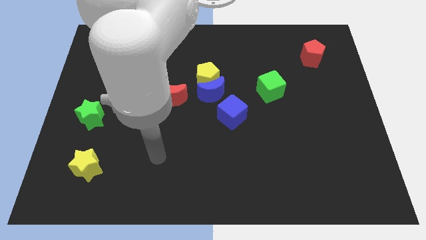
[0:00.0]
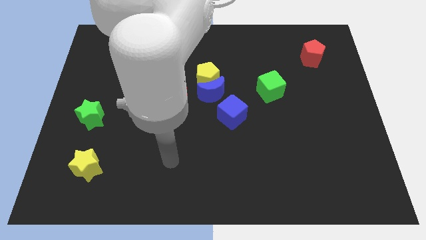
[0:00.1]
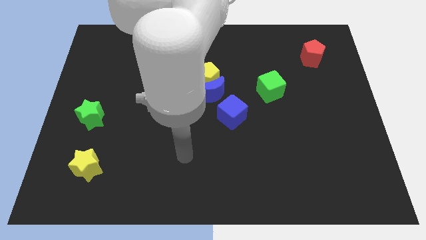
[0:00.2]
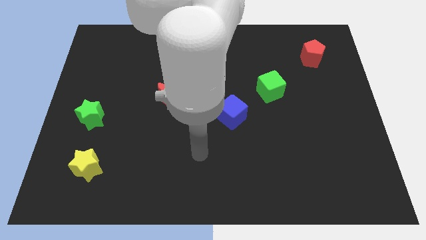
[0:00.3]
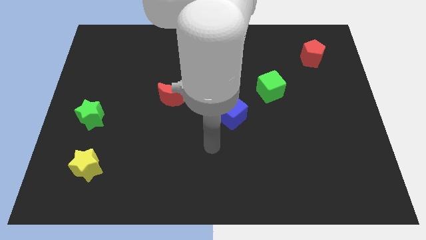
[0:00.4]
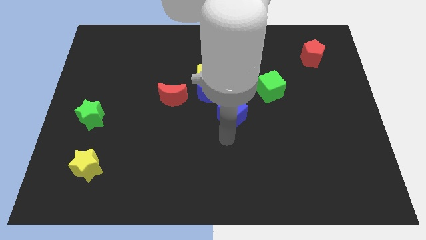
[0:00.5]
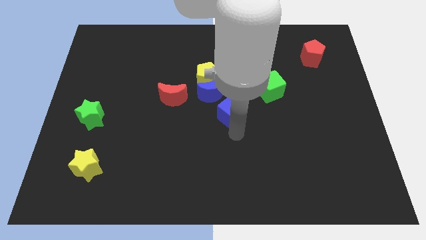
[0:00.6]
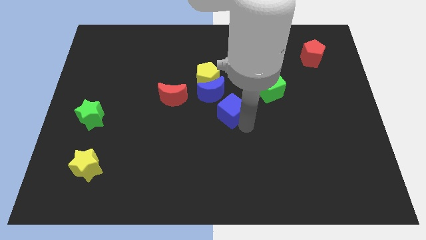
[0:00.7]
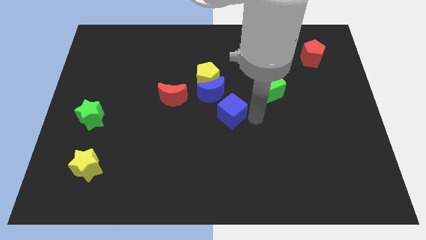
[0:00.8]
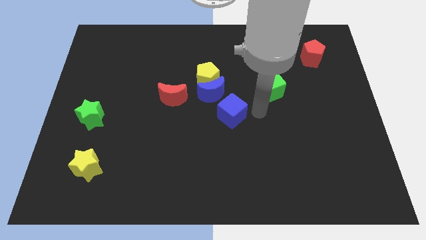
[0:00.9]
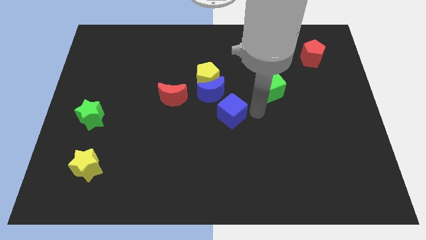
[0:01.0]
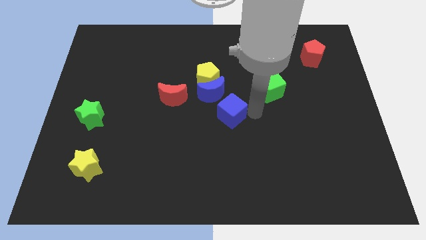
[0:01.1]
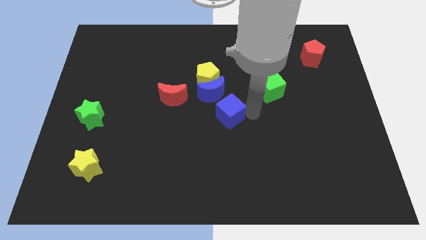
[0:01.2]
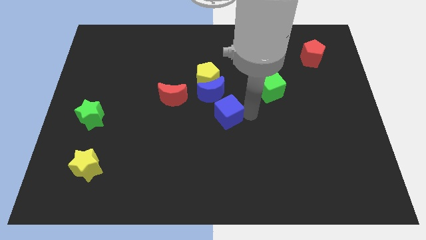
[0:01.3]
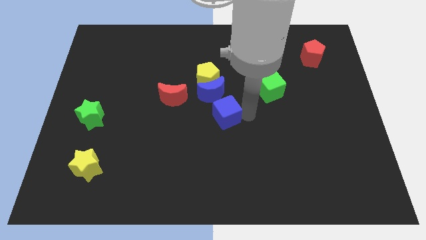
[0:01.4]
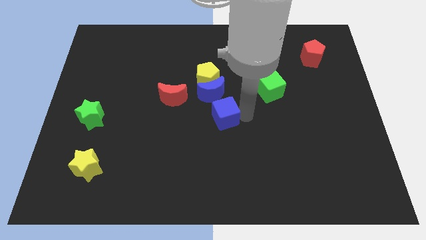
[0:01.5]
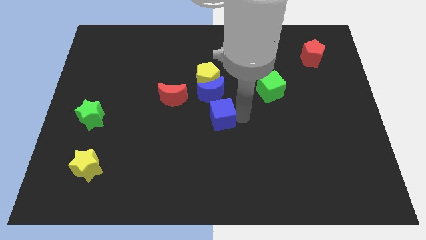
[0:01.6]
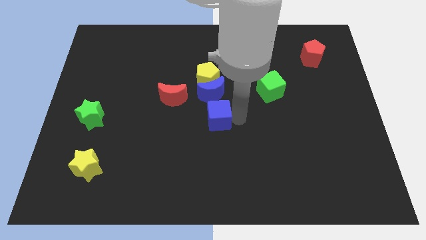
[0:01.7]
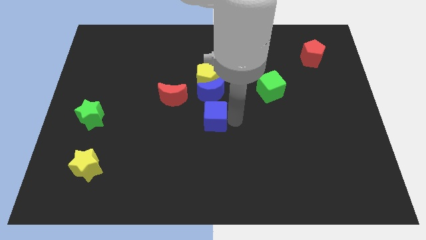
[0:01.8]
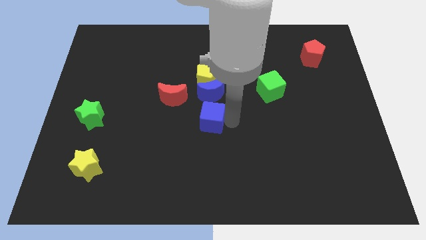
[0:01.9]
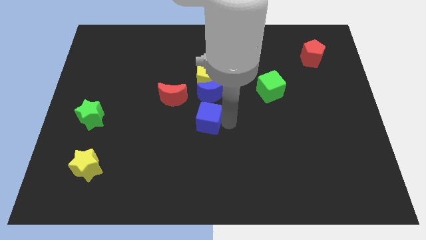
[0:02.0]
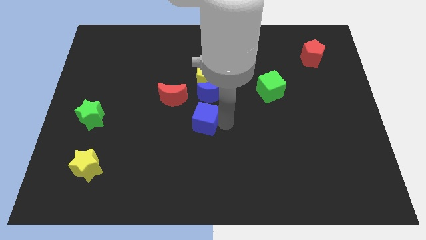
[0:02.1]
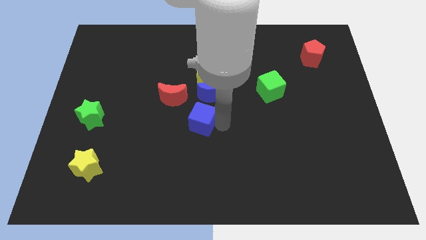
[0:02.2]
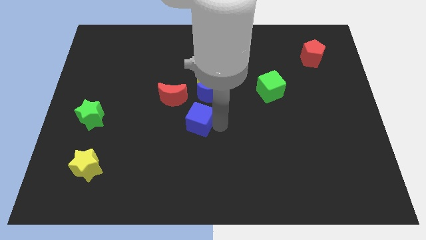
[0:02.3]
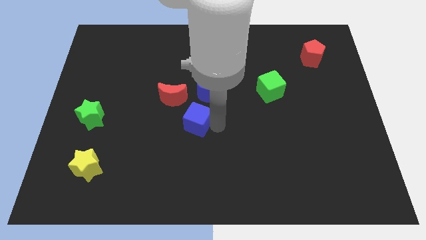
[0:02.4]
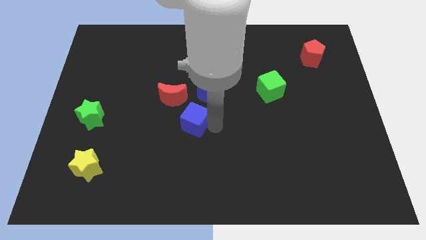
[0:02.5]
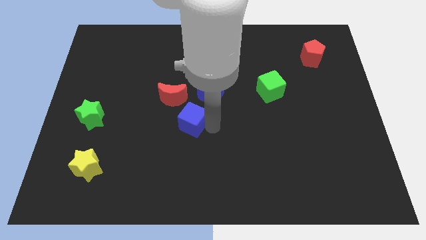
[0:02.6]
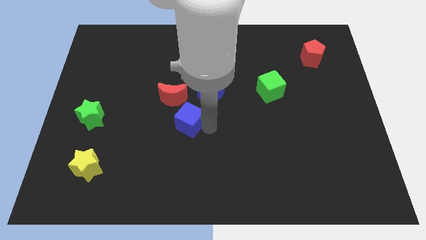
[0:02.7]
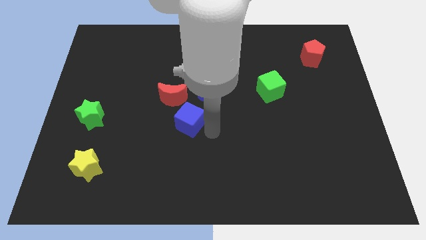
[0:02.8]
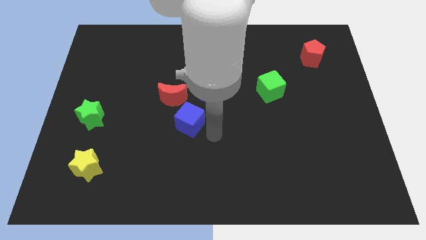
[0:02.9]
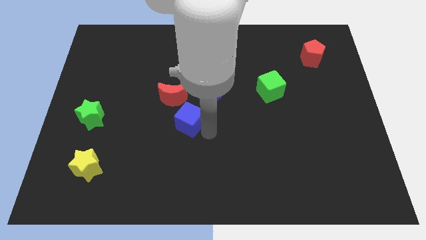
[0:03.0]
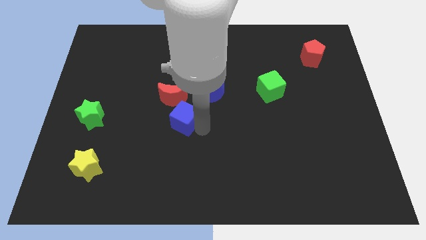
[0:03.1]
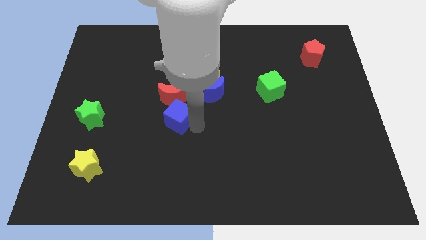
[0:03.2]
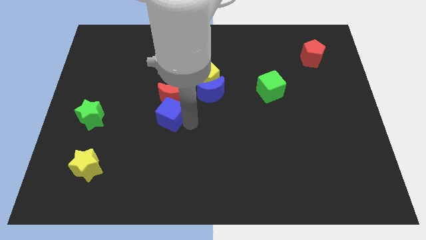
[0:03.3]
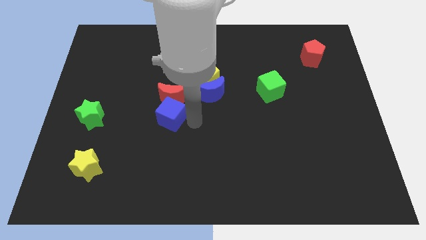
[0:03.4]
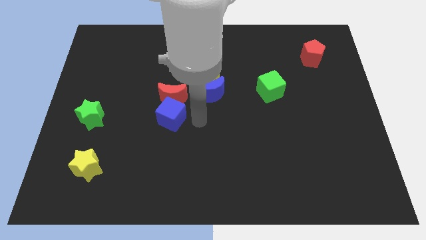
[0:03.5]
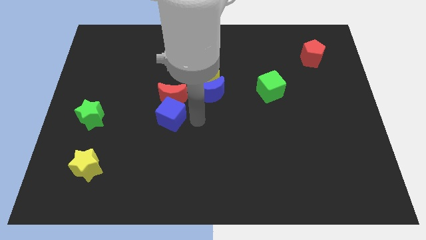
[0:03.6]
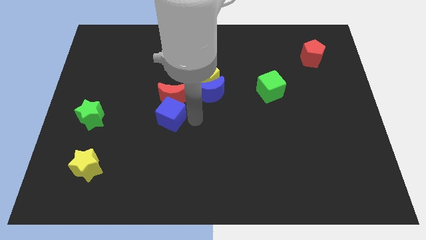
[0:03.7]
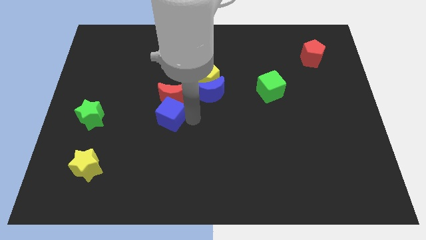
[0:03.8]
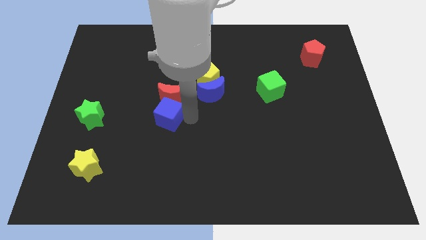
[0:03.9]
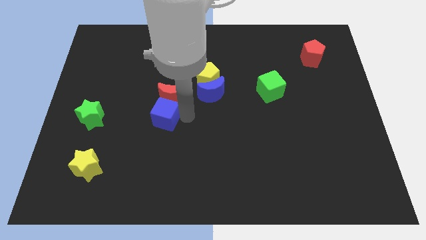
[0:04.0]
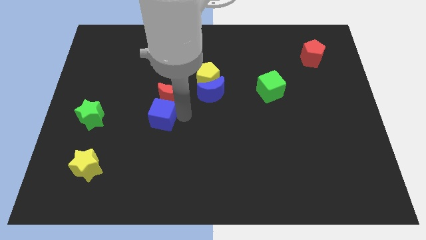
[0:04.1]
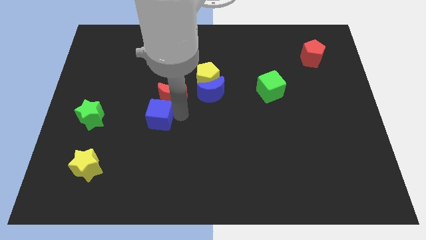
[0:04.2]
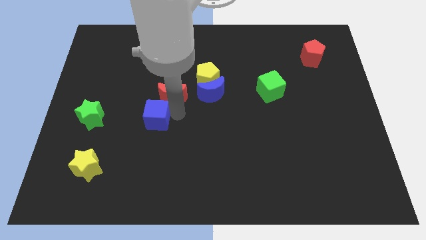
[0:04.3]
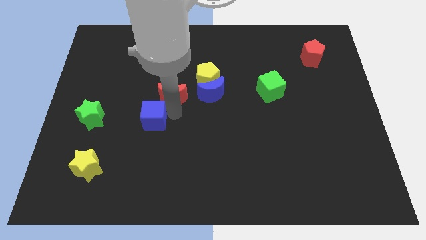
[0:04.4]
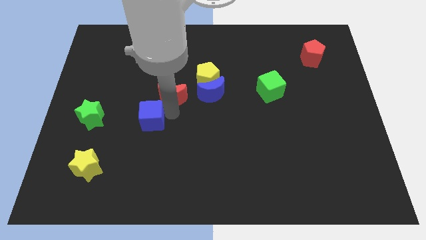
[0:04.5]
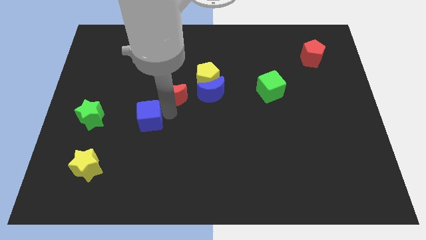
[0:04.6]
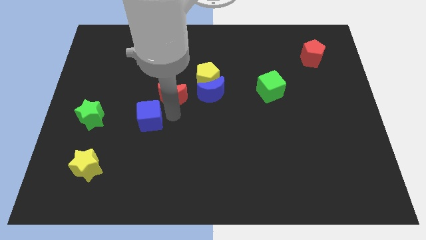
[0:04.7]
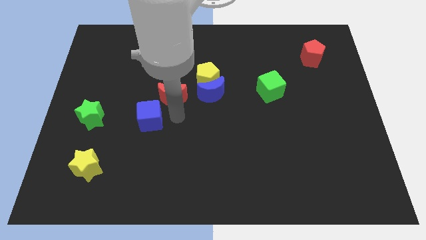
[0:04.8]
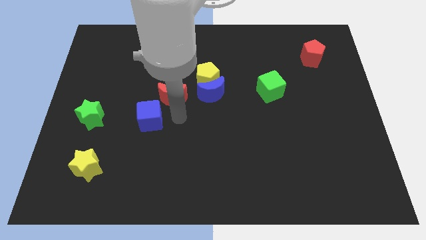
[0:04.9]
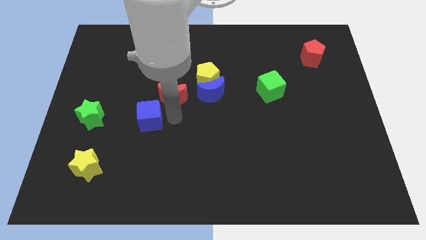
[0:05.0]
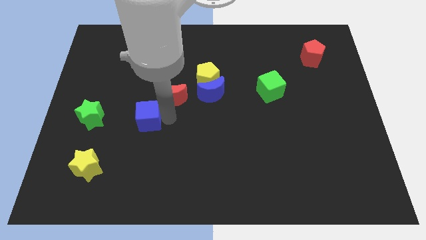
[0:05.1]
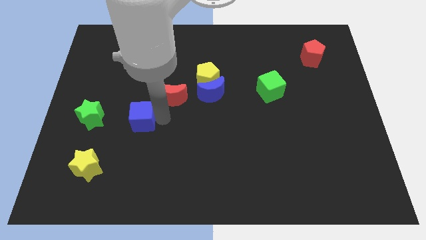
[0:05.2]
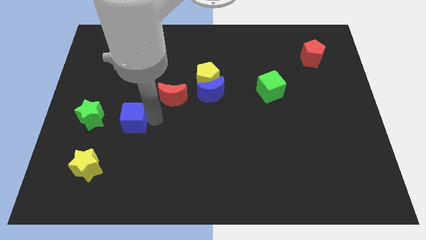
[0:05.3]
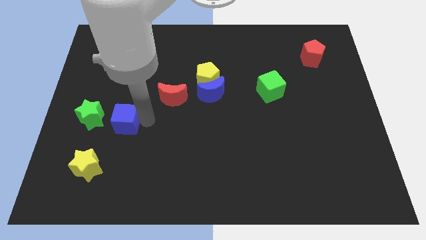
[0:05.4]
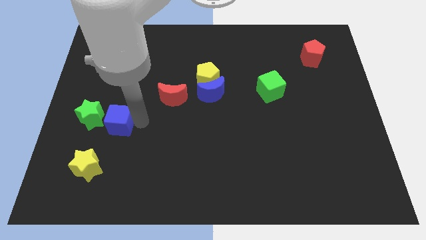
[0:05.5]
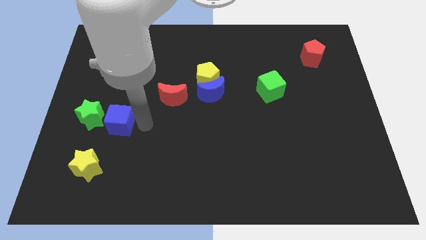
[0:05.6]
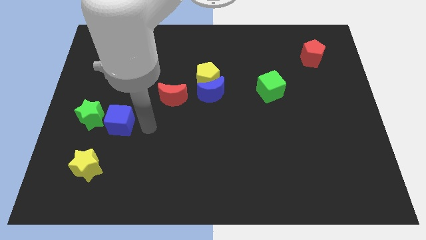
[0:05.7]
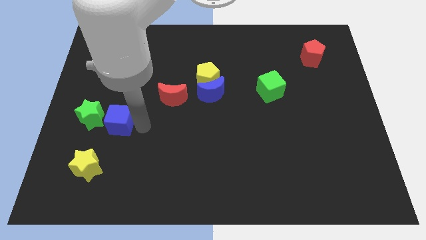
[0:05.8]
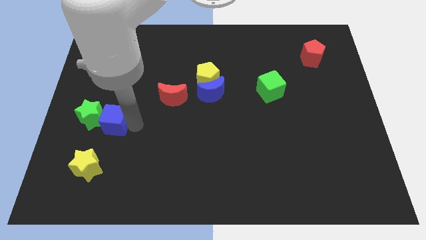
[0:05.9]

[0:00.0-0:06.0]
push the blue cube next to the green star
